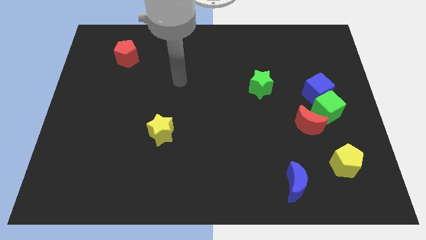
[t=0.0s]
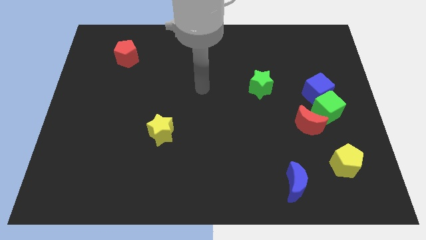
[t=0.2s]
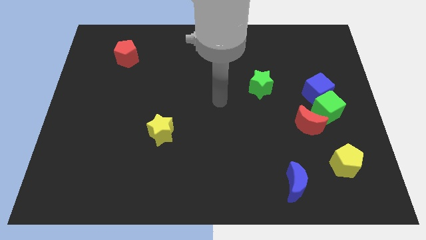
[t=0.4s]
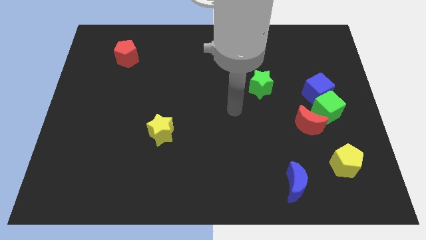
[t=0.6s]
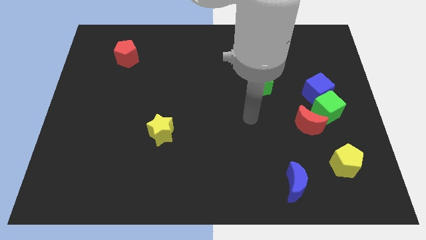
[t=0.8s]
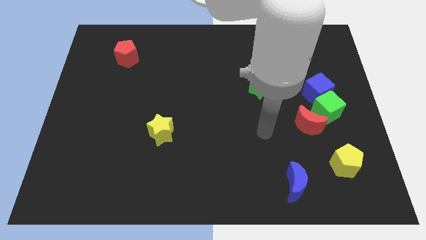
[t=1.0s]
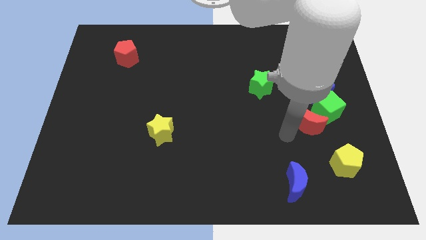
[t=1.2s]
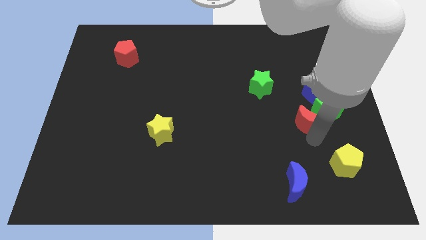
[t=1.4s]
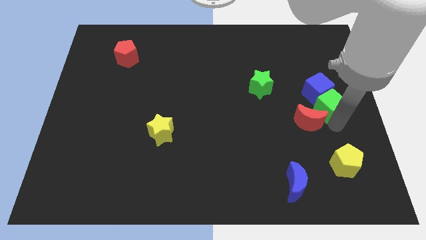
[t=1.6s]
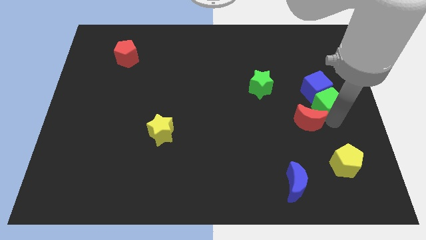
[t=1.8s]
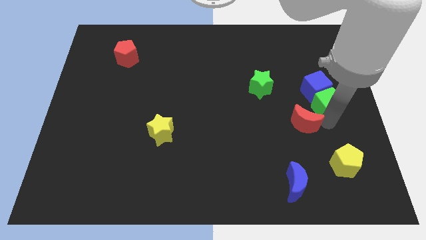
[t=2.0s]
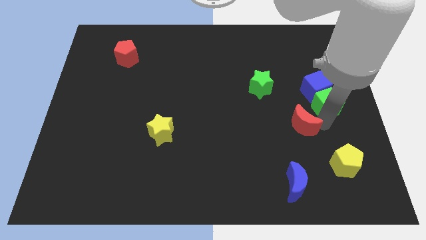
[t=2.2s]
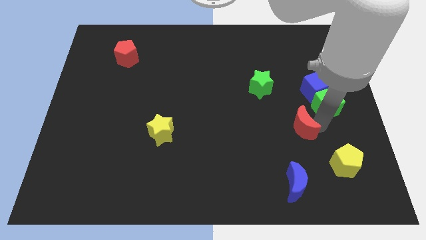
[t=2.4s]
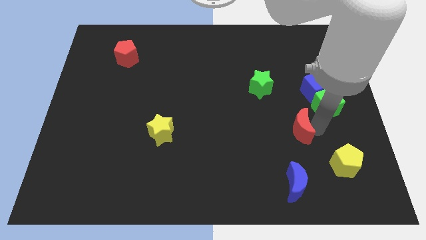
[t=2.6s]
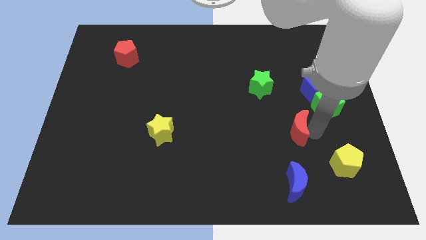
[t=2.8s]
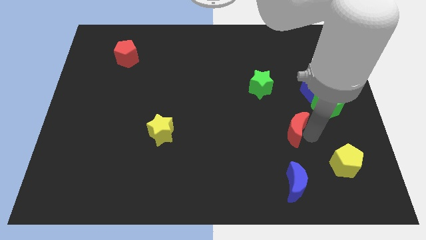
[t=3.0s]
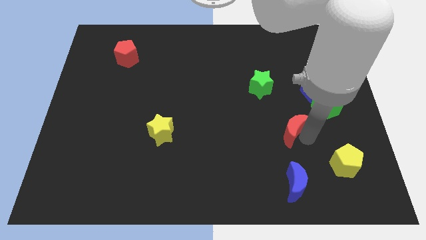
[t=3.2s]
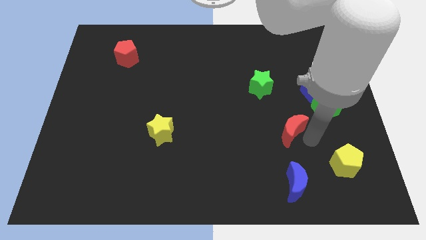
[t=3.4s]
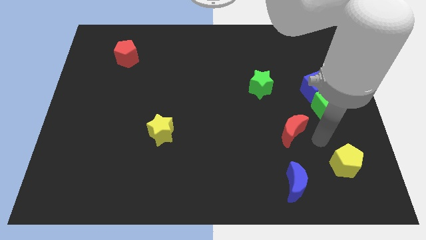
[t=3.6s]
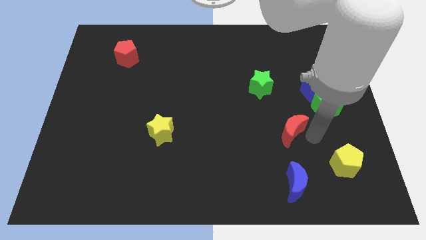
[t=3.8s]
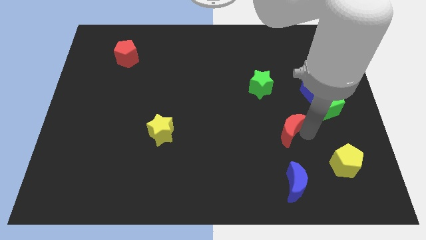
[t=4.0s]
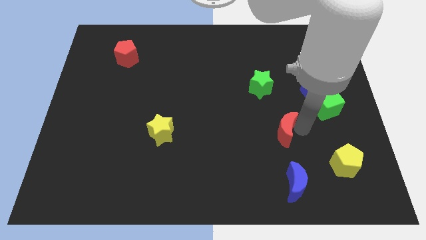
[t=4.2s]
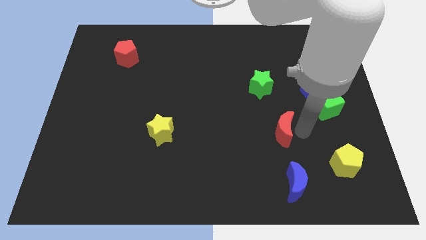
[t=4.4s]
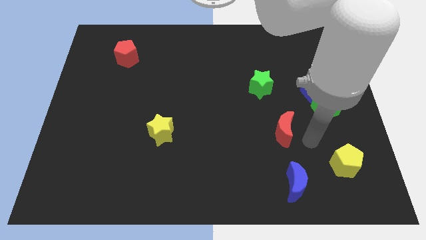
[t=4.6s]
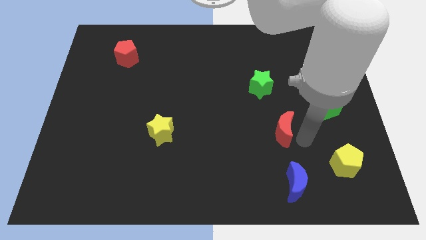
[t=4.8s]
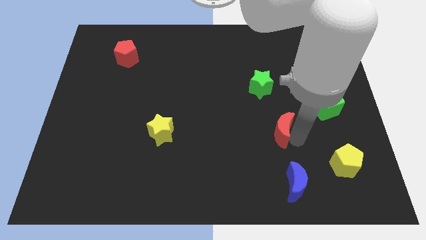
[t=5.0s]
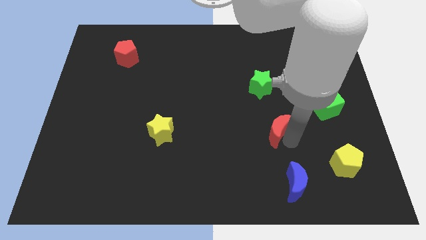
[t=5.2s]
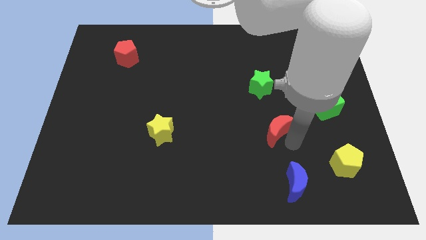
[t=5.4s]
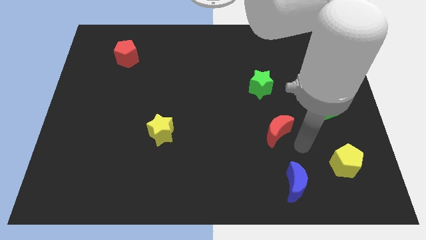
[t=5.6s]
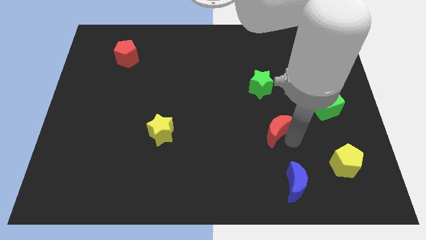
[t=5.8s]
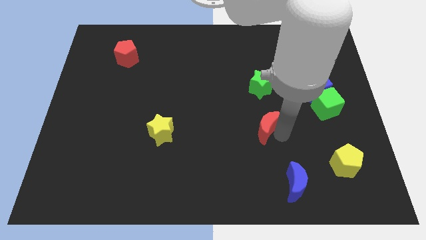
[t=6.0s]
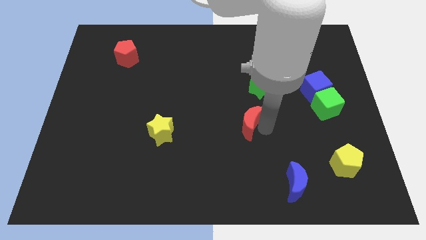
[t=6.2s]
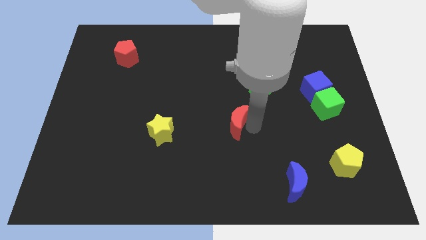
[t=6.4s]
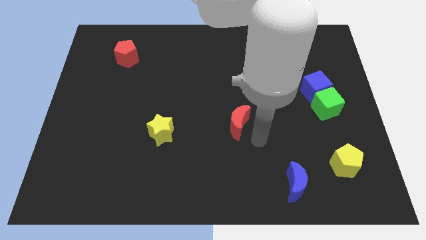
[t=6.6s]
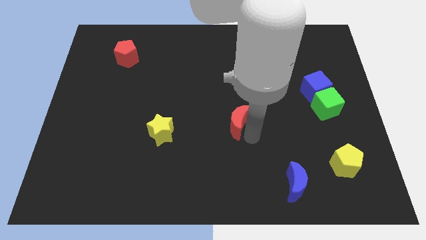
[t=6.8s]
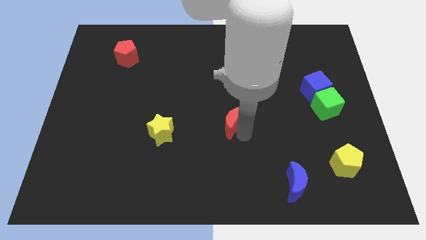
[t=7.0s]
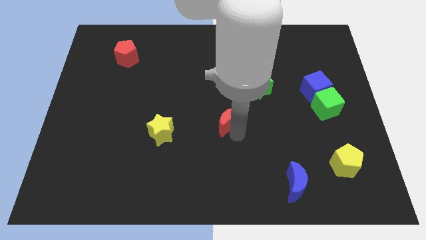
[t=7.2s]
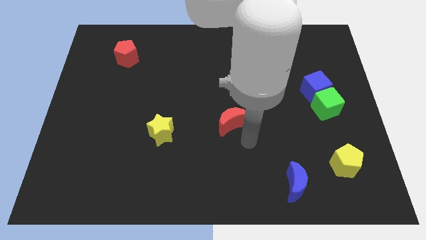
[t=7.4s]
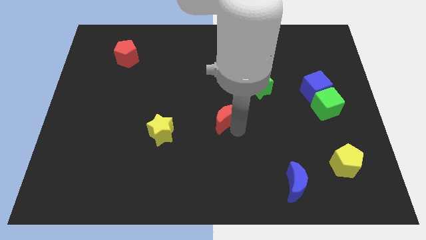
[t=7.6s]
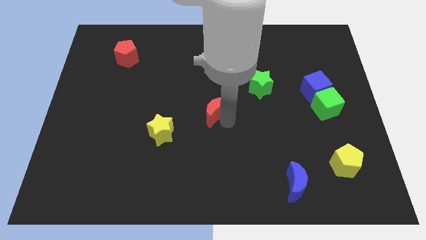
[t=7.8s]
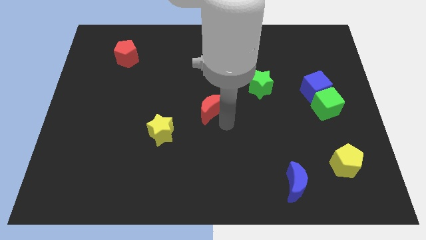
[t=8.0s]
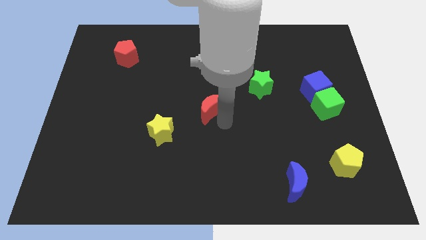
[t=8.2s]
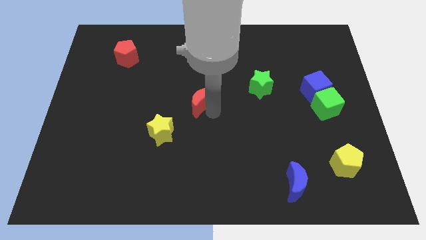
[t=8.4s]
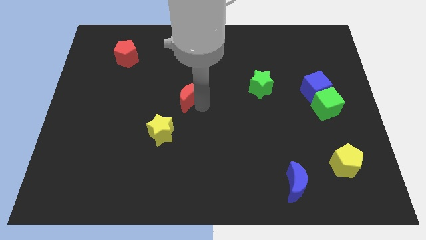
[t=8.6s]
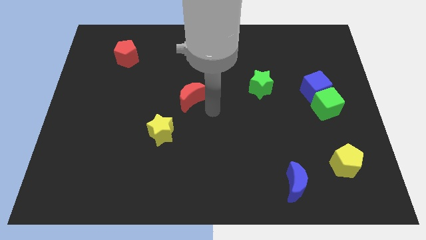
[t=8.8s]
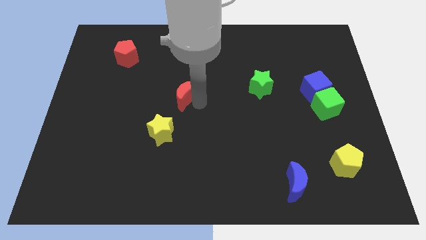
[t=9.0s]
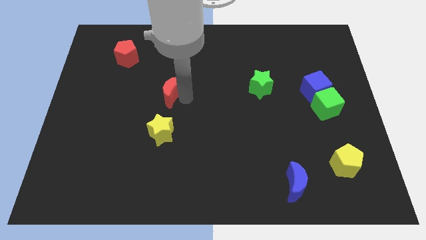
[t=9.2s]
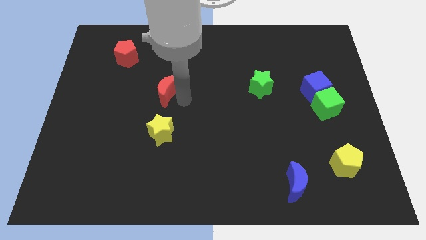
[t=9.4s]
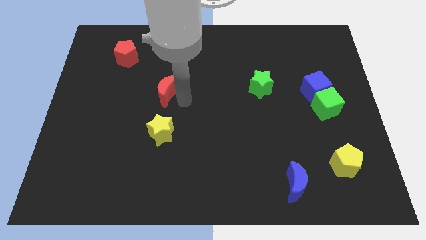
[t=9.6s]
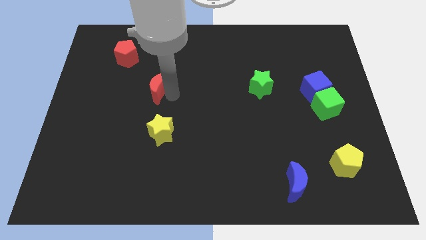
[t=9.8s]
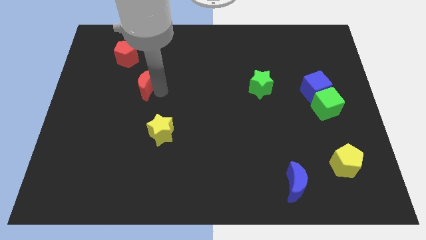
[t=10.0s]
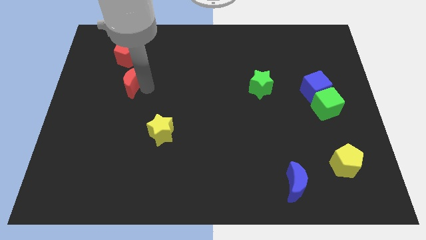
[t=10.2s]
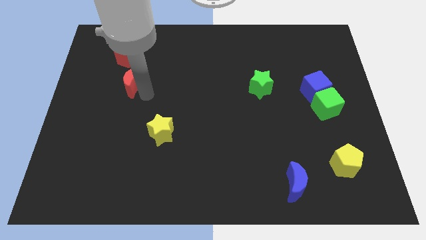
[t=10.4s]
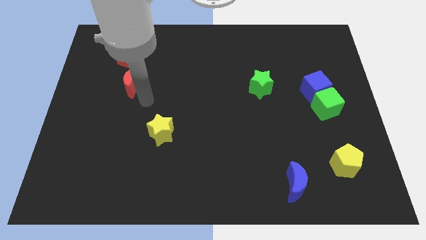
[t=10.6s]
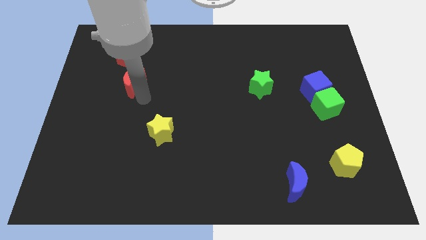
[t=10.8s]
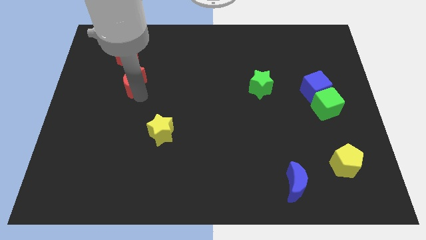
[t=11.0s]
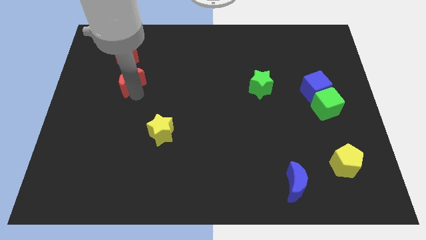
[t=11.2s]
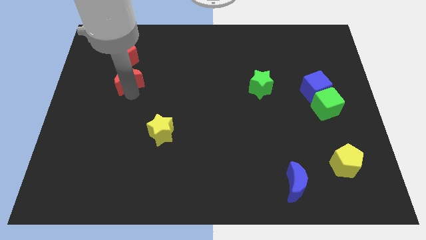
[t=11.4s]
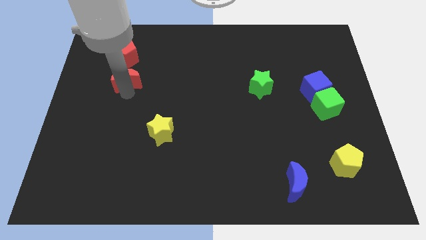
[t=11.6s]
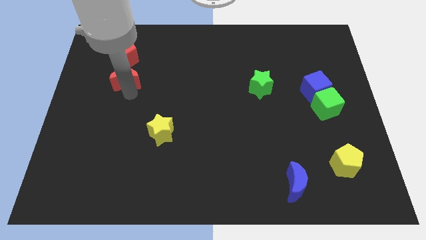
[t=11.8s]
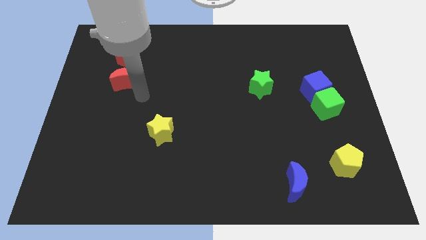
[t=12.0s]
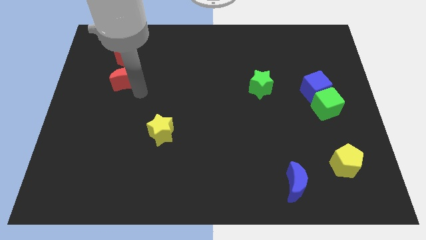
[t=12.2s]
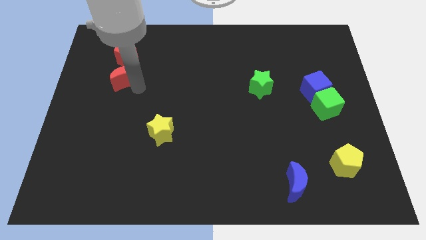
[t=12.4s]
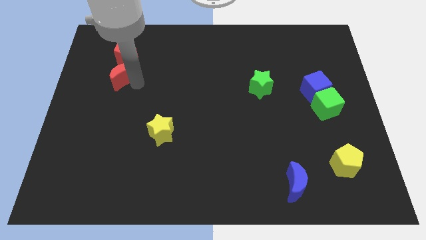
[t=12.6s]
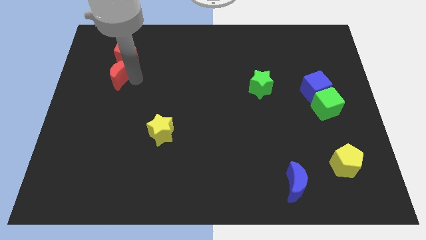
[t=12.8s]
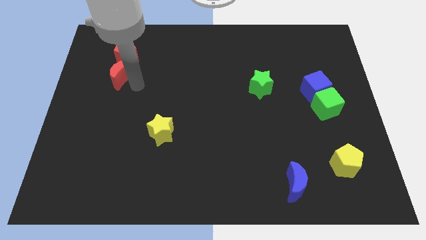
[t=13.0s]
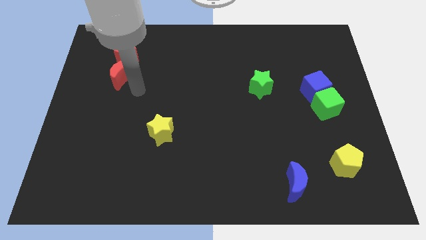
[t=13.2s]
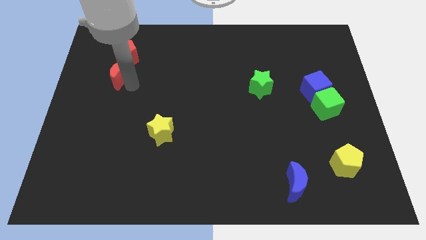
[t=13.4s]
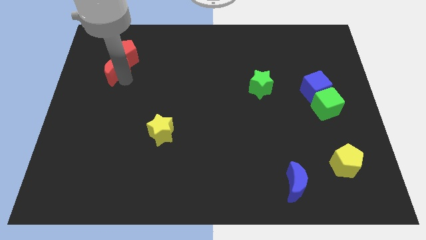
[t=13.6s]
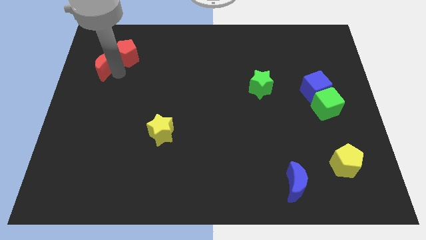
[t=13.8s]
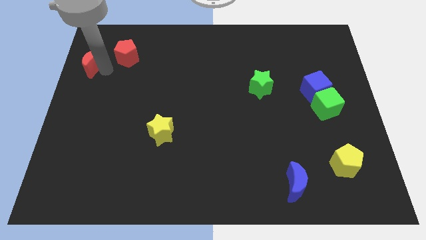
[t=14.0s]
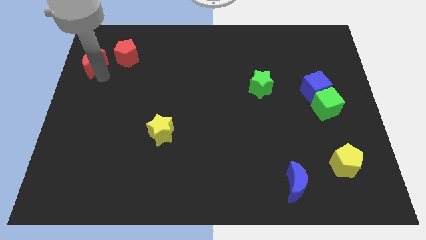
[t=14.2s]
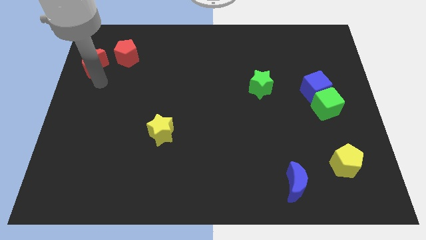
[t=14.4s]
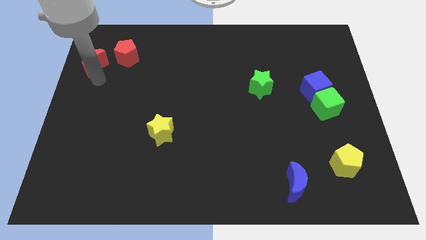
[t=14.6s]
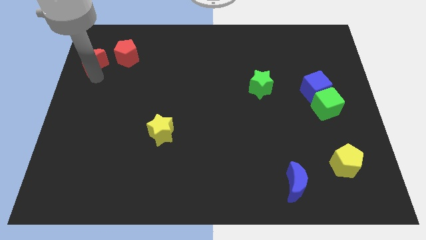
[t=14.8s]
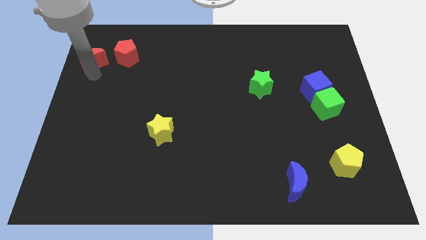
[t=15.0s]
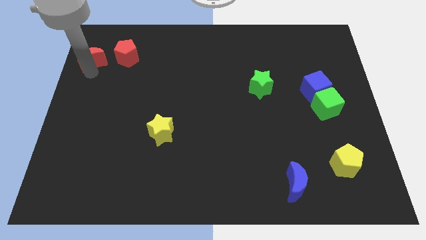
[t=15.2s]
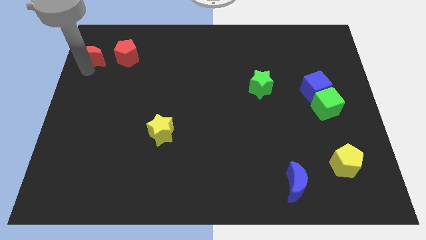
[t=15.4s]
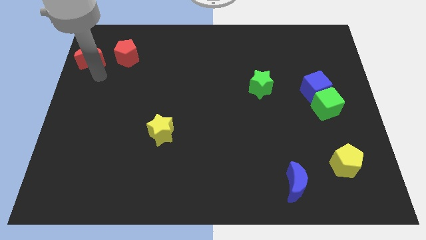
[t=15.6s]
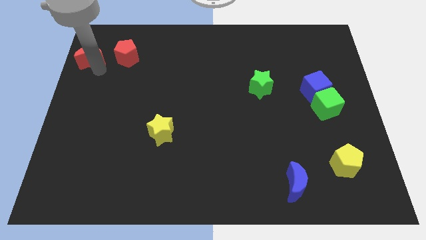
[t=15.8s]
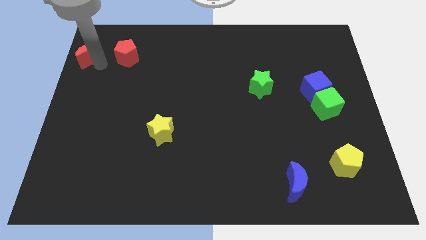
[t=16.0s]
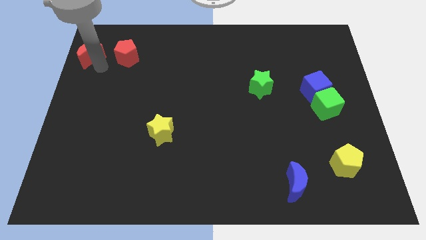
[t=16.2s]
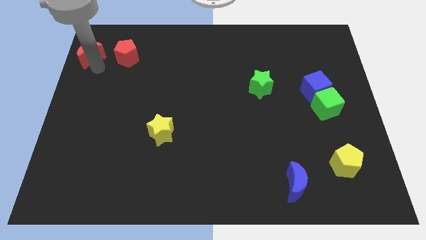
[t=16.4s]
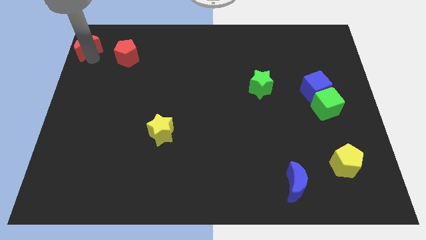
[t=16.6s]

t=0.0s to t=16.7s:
move the red moon to the upper left corner

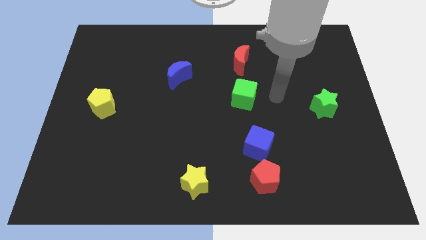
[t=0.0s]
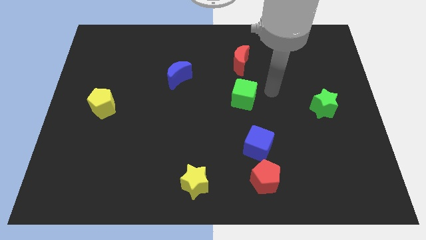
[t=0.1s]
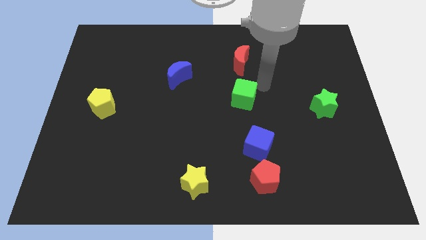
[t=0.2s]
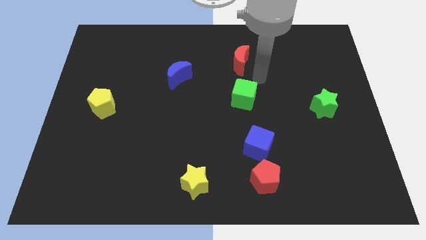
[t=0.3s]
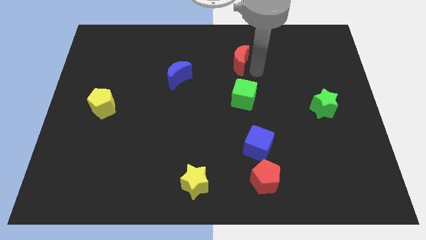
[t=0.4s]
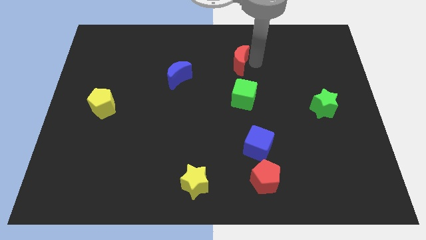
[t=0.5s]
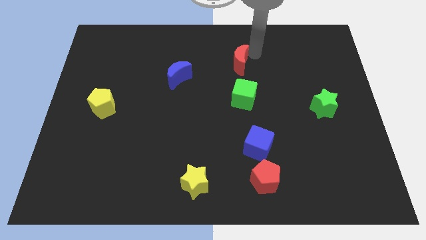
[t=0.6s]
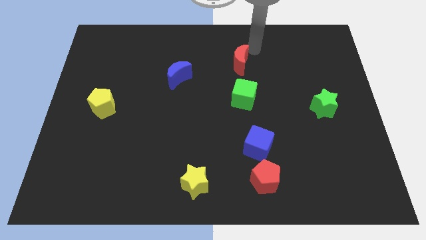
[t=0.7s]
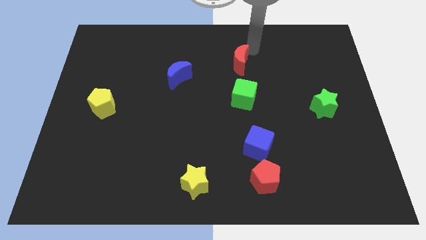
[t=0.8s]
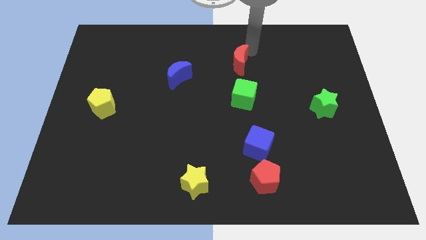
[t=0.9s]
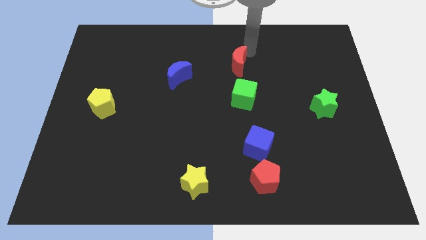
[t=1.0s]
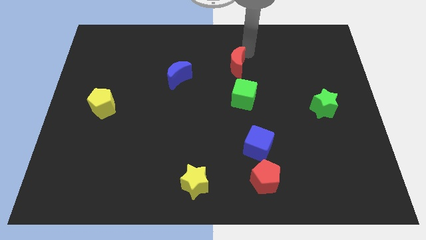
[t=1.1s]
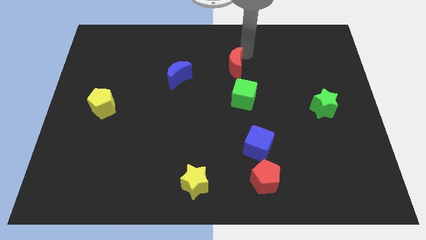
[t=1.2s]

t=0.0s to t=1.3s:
put the red moon to the center
